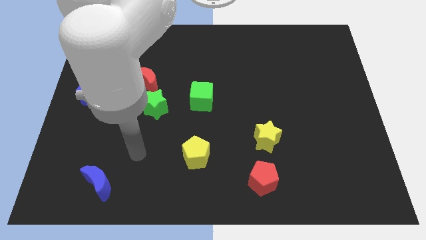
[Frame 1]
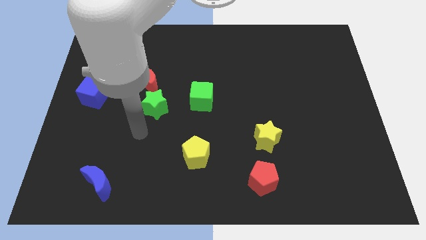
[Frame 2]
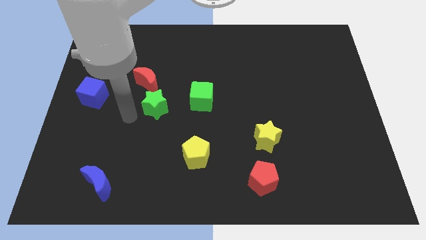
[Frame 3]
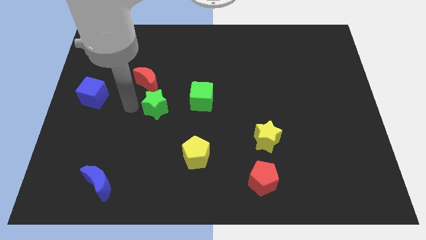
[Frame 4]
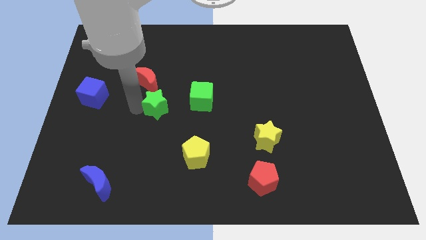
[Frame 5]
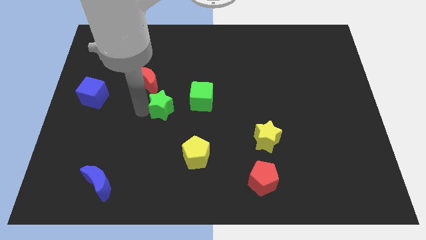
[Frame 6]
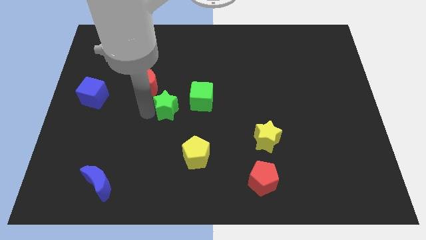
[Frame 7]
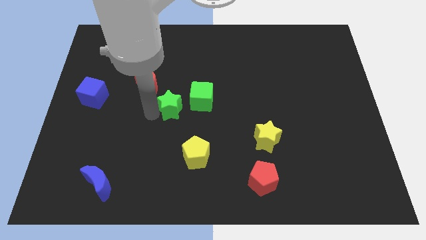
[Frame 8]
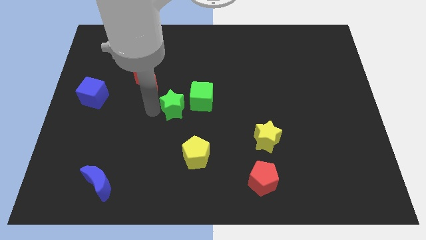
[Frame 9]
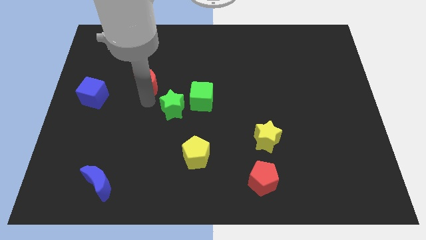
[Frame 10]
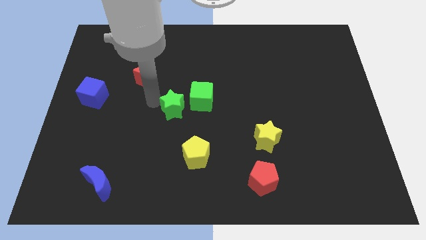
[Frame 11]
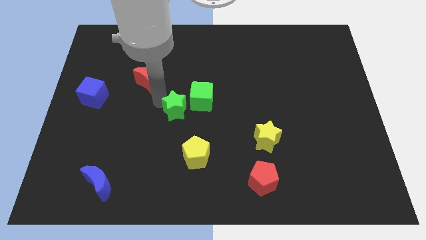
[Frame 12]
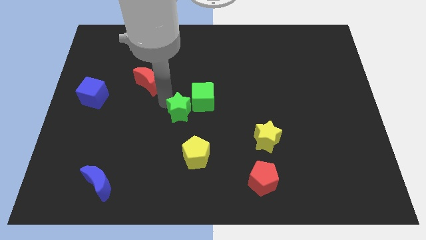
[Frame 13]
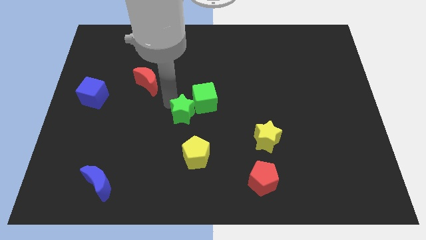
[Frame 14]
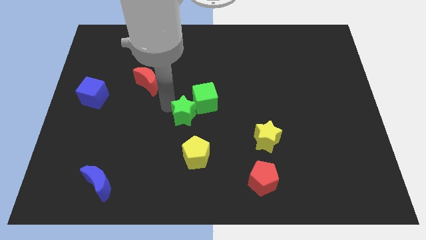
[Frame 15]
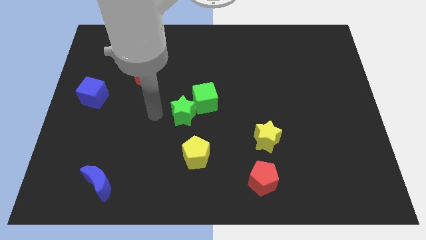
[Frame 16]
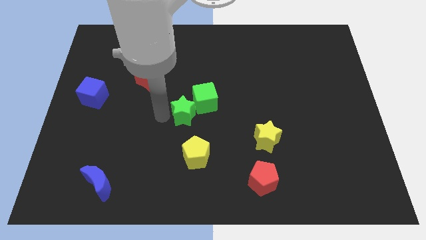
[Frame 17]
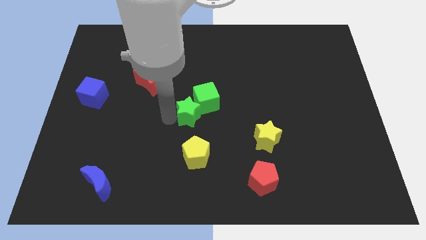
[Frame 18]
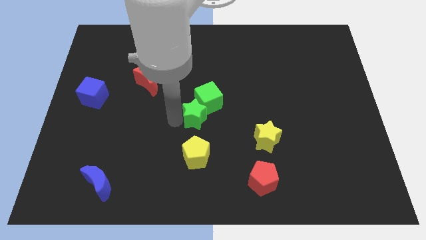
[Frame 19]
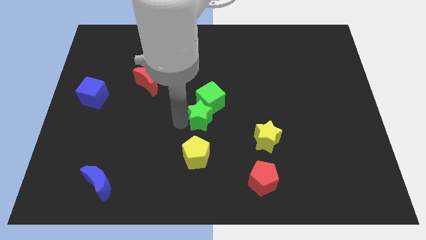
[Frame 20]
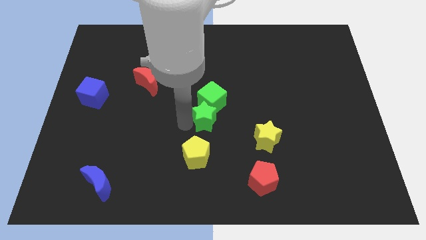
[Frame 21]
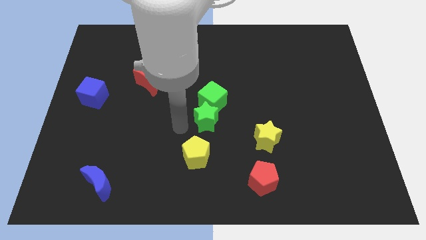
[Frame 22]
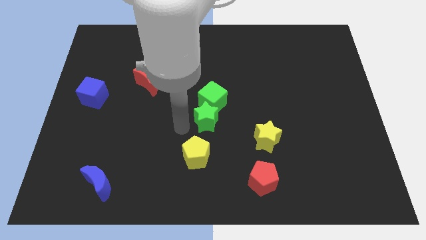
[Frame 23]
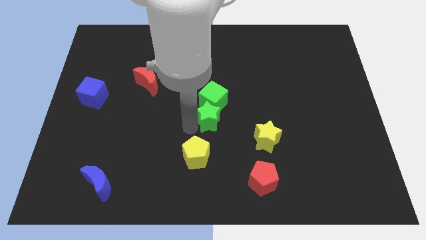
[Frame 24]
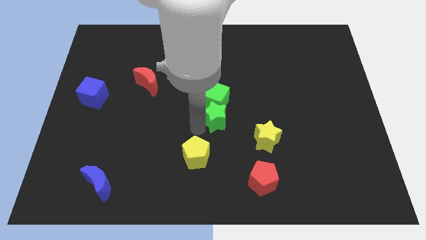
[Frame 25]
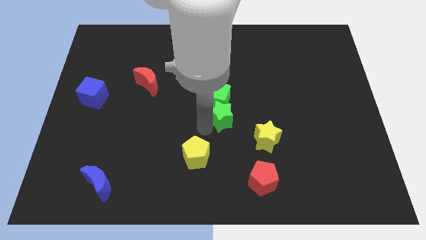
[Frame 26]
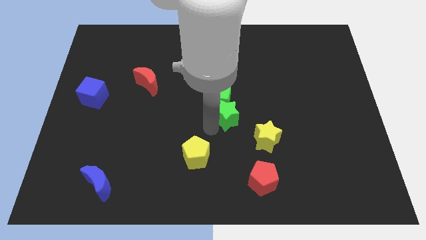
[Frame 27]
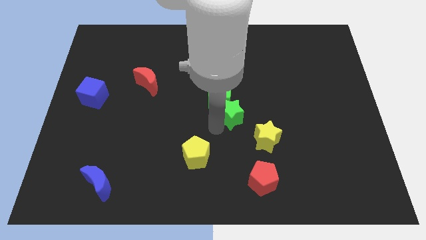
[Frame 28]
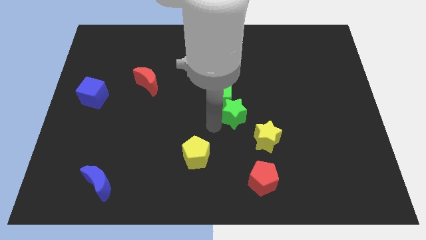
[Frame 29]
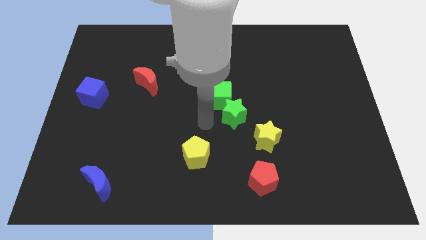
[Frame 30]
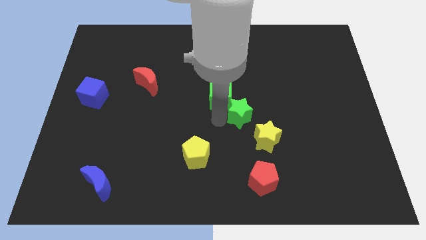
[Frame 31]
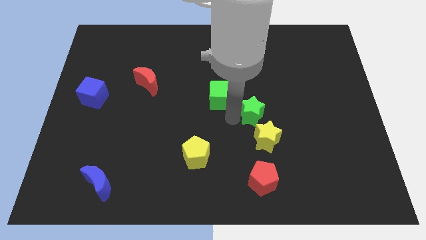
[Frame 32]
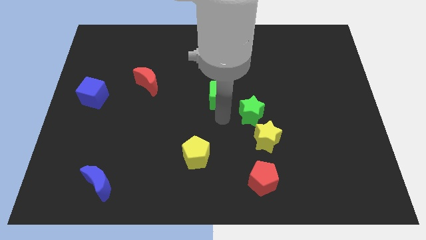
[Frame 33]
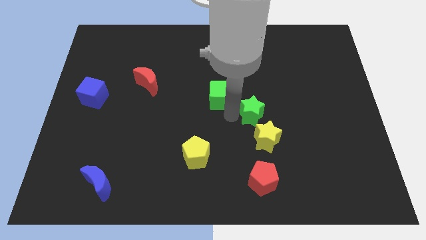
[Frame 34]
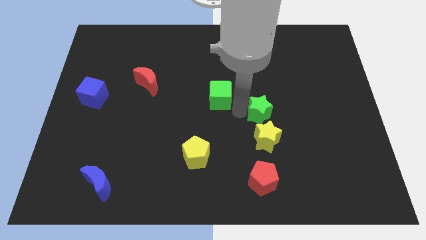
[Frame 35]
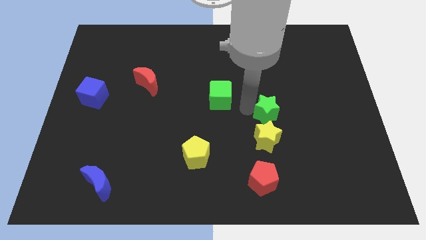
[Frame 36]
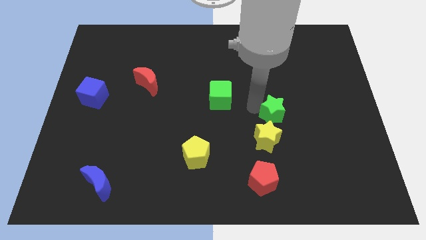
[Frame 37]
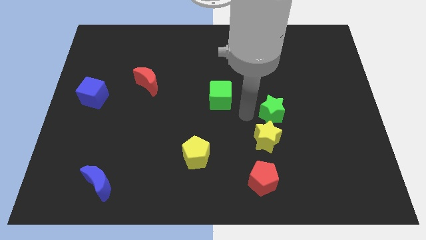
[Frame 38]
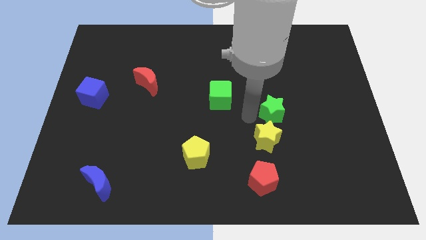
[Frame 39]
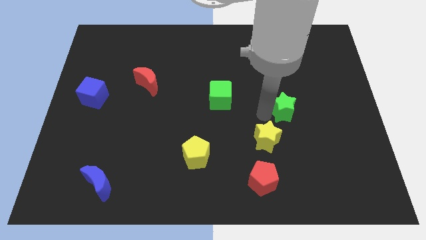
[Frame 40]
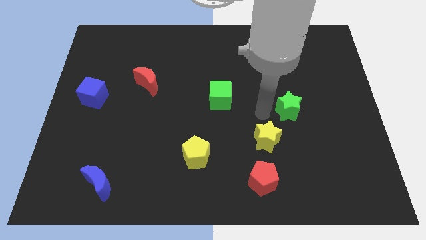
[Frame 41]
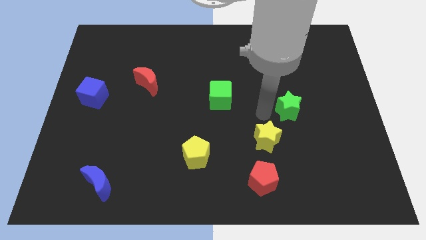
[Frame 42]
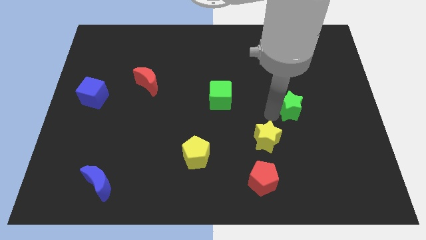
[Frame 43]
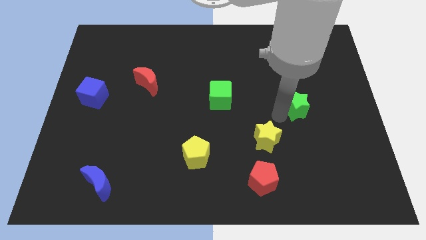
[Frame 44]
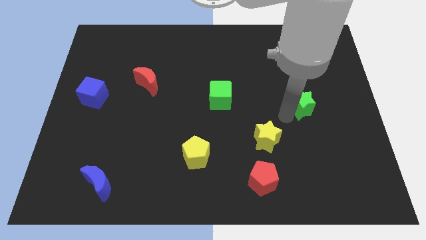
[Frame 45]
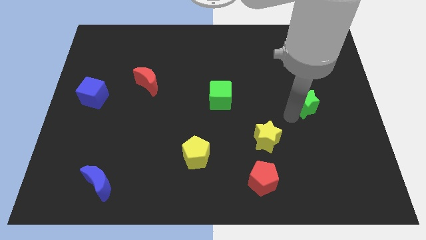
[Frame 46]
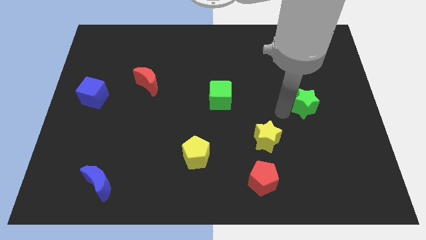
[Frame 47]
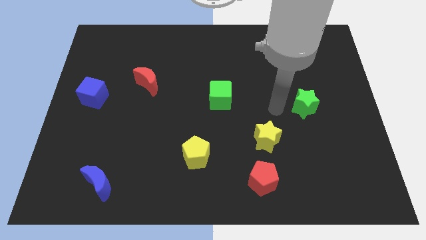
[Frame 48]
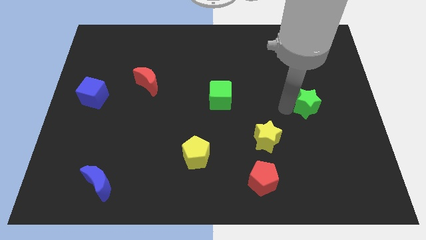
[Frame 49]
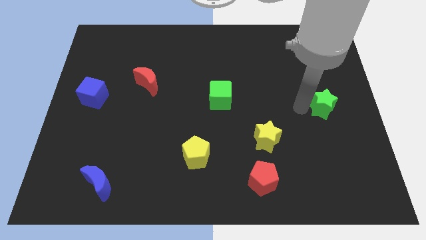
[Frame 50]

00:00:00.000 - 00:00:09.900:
push the green star to the center right
